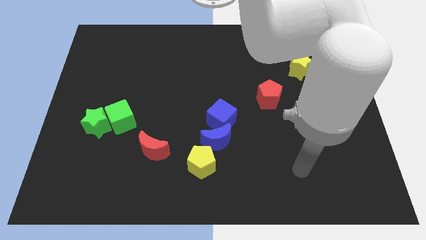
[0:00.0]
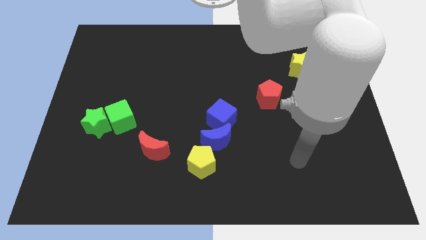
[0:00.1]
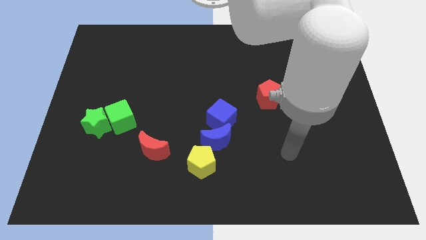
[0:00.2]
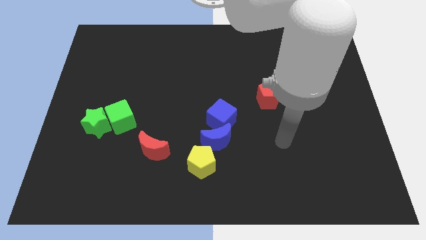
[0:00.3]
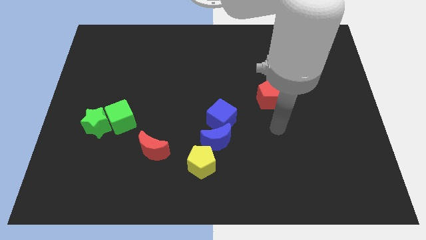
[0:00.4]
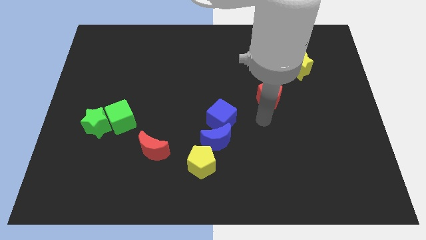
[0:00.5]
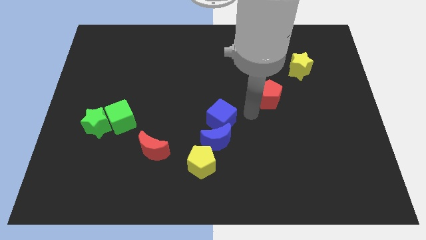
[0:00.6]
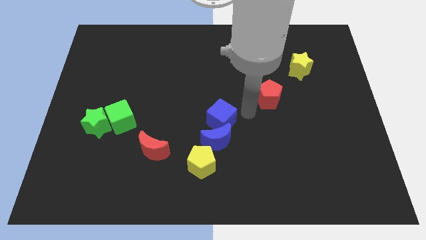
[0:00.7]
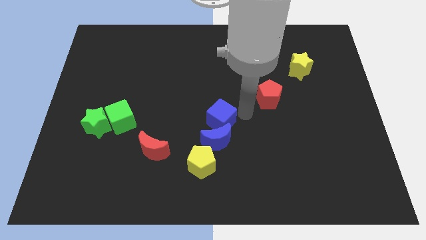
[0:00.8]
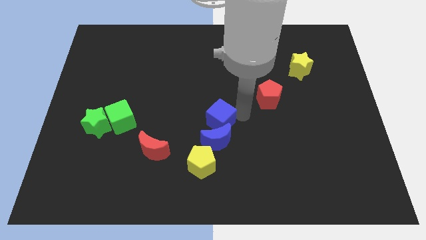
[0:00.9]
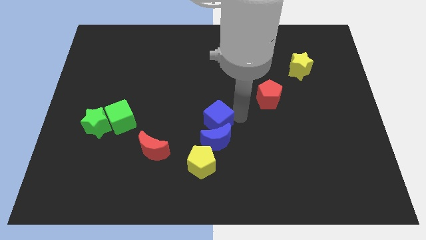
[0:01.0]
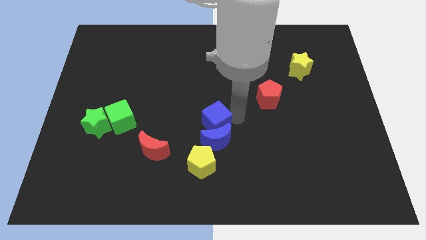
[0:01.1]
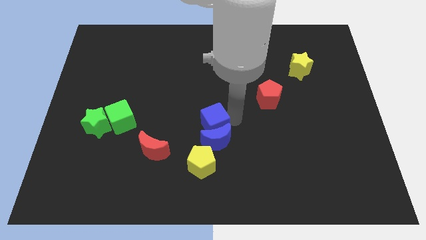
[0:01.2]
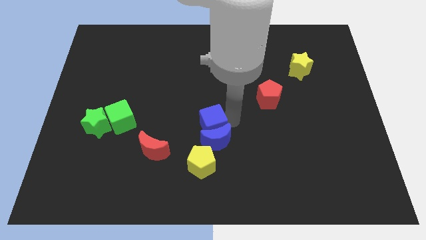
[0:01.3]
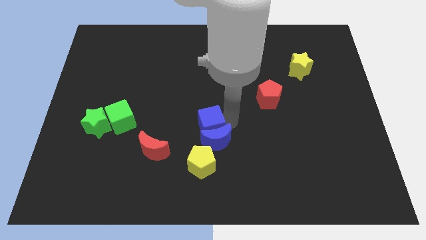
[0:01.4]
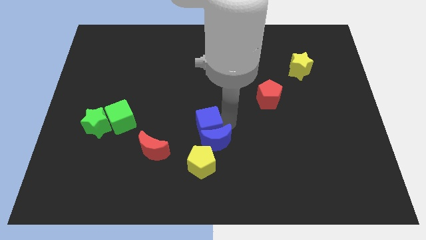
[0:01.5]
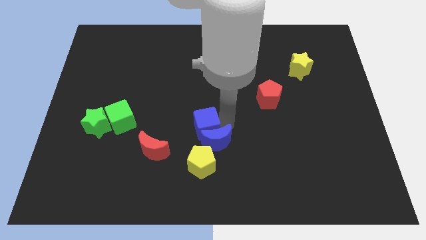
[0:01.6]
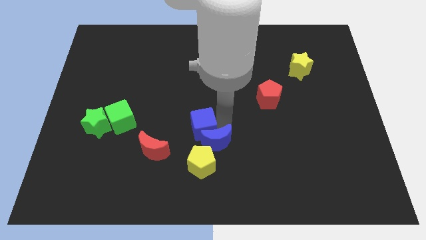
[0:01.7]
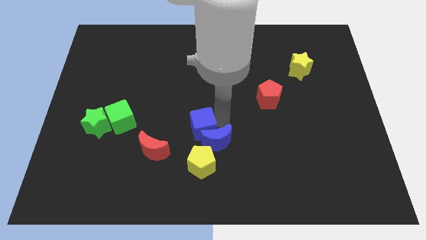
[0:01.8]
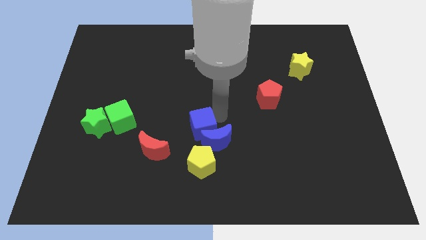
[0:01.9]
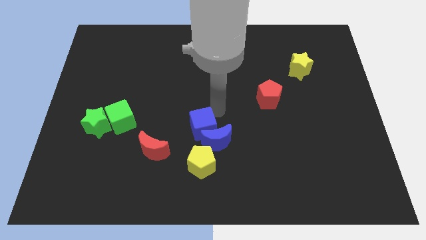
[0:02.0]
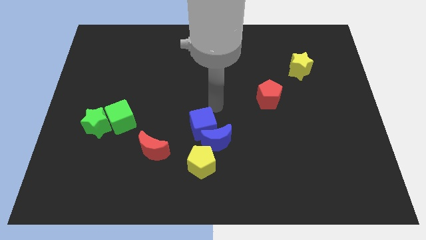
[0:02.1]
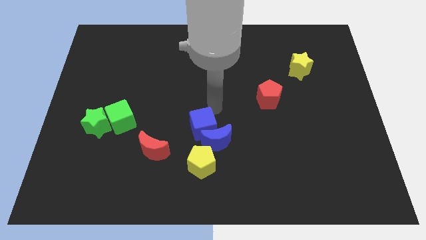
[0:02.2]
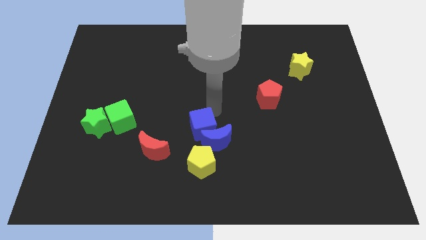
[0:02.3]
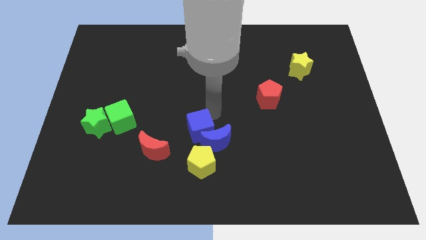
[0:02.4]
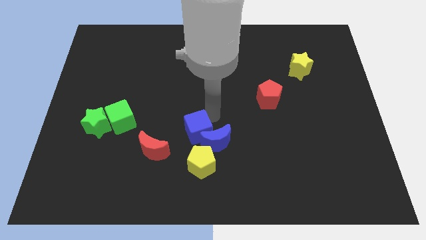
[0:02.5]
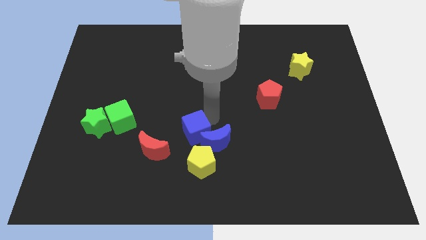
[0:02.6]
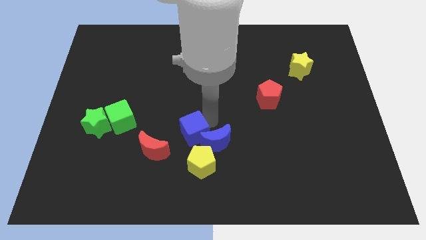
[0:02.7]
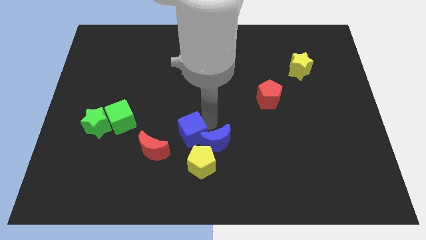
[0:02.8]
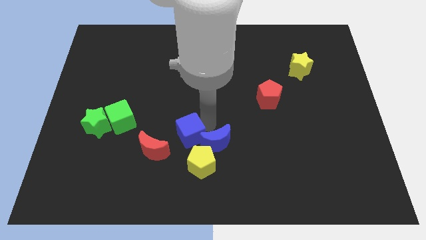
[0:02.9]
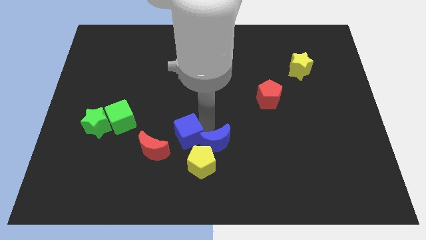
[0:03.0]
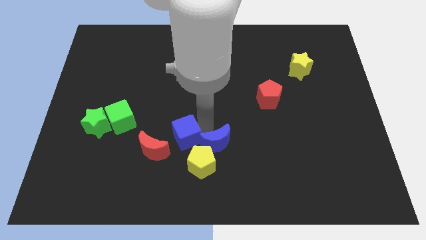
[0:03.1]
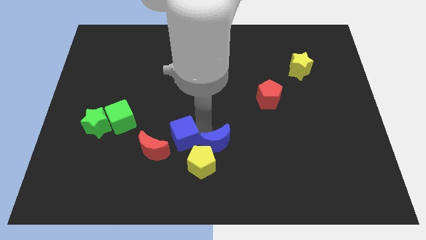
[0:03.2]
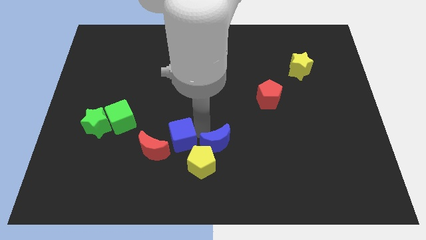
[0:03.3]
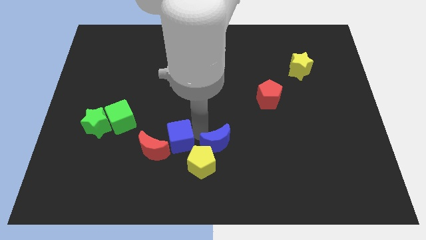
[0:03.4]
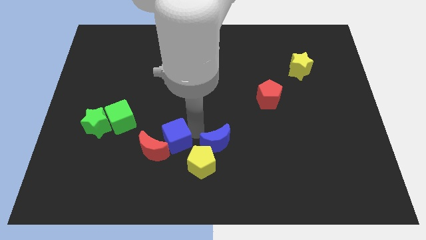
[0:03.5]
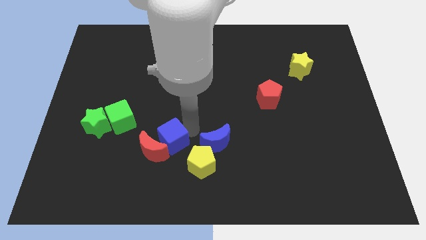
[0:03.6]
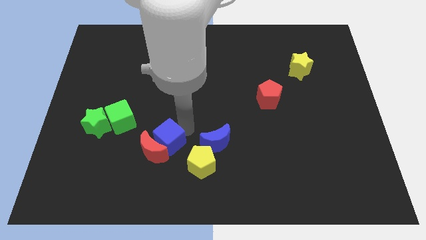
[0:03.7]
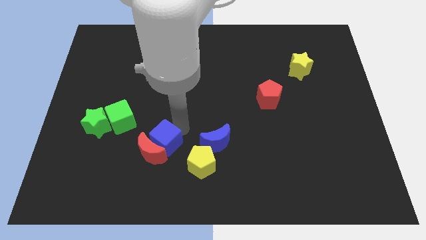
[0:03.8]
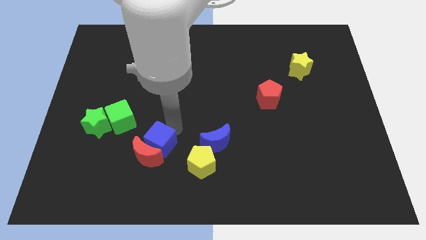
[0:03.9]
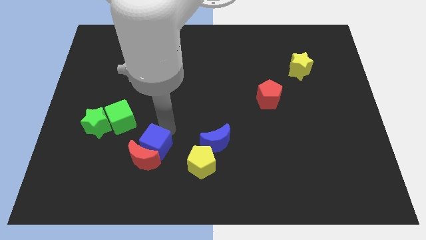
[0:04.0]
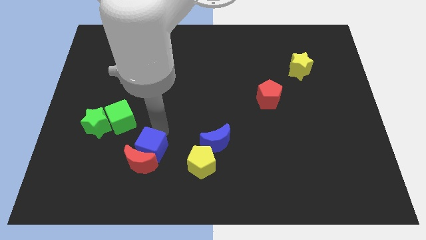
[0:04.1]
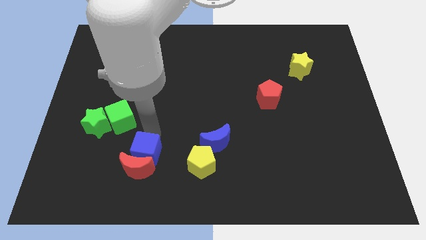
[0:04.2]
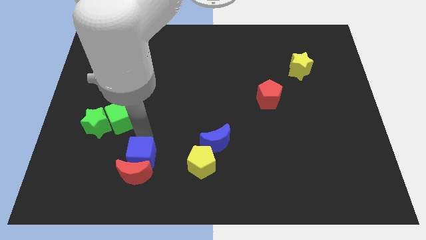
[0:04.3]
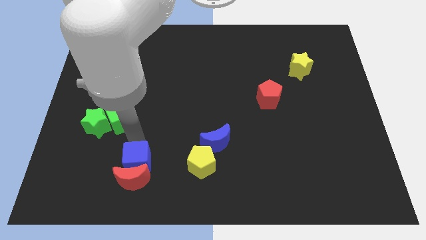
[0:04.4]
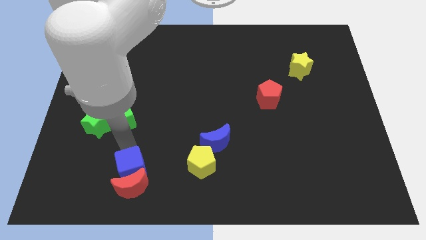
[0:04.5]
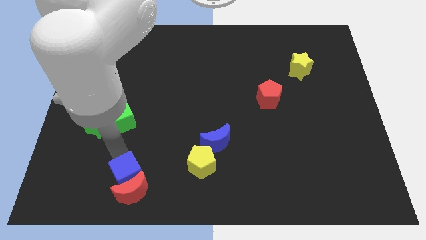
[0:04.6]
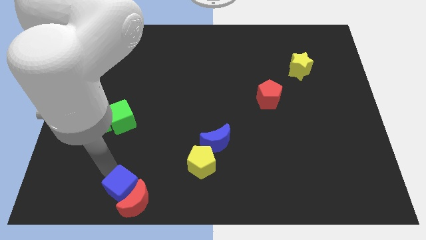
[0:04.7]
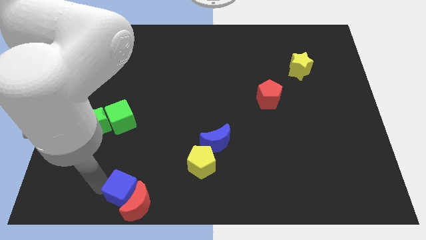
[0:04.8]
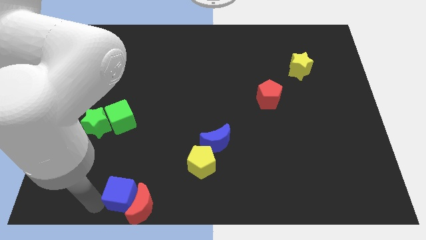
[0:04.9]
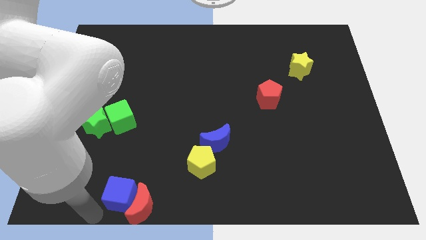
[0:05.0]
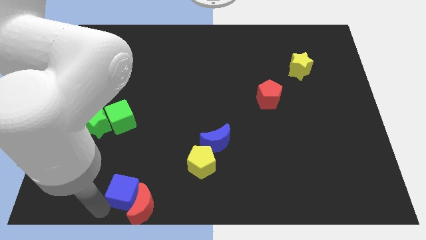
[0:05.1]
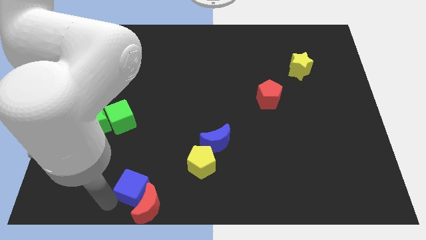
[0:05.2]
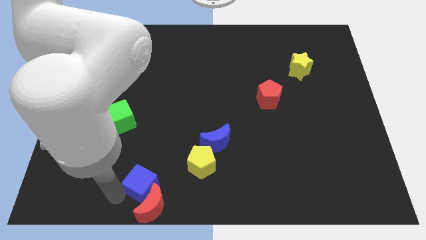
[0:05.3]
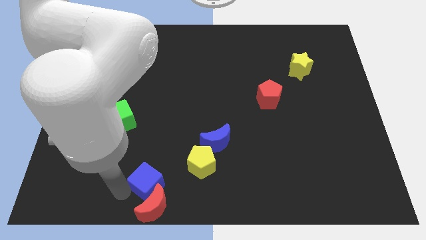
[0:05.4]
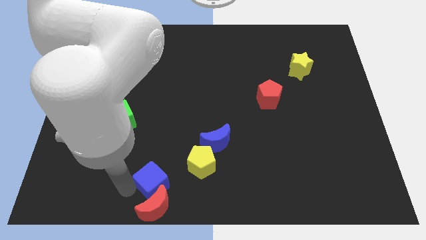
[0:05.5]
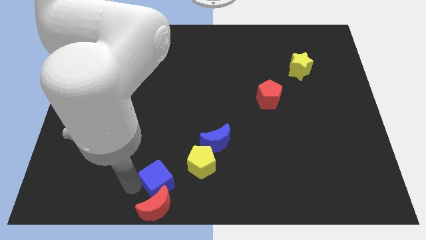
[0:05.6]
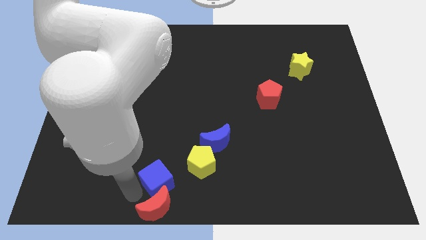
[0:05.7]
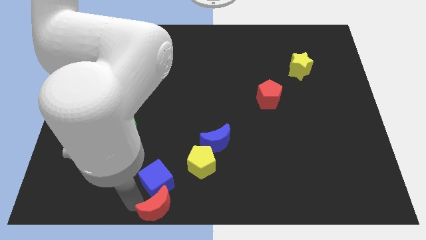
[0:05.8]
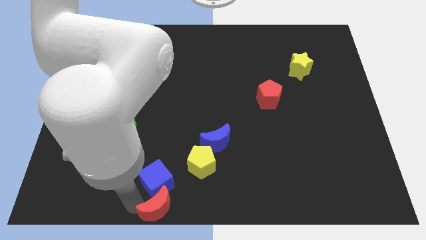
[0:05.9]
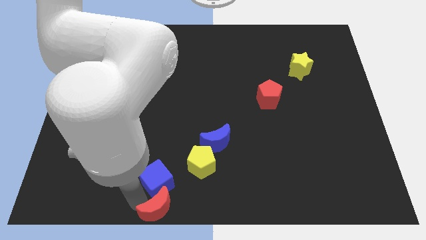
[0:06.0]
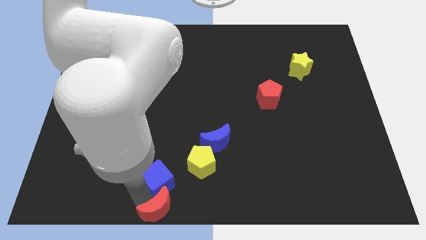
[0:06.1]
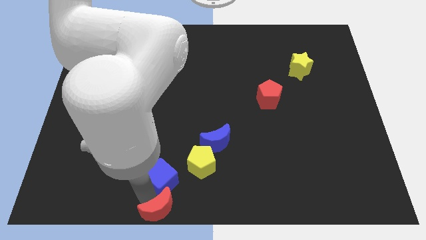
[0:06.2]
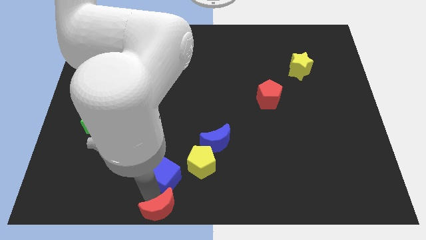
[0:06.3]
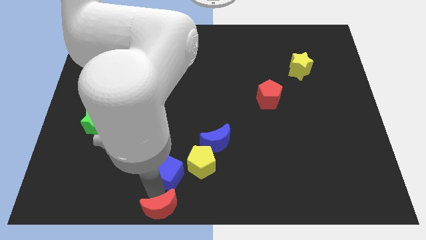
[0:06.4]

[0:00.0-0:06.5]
push the blue cube diagonally down and to the left of the blue moon

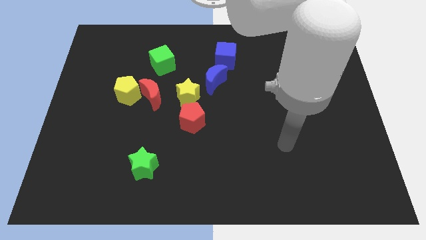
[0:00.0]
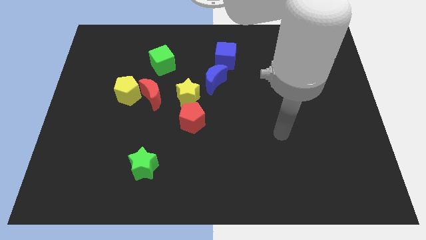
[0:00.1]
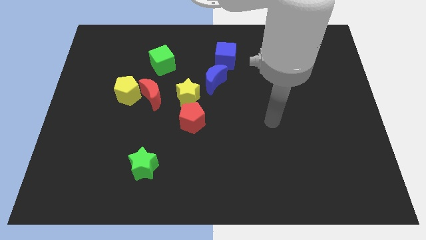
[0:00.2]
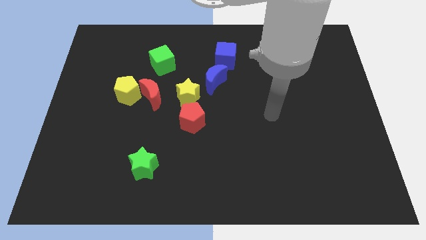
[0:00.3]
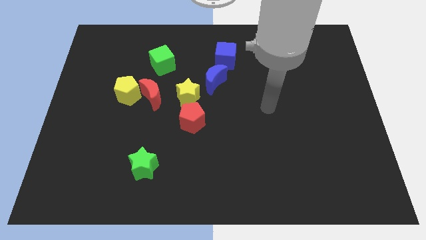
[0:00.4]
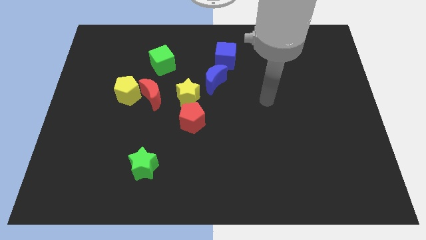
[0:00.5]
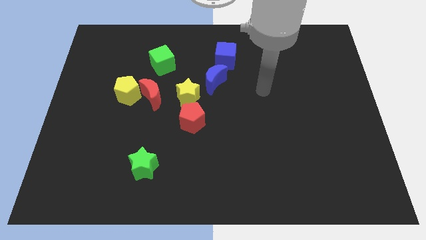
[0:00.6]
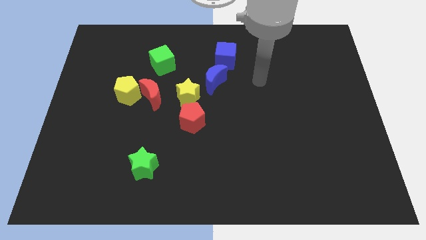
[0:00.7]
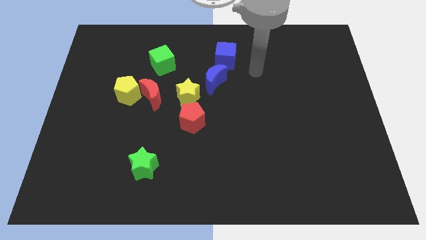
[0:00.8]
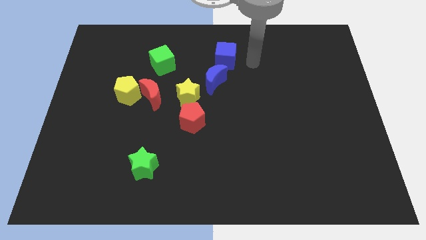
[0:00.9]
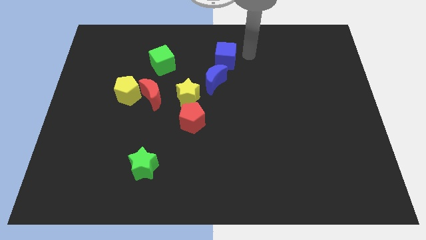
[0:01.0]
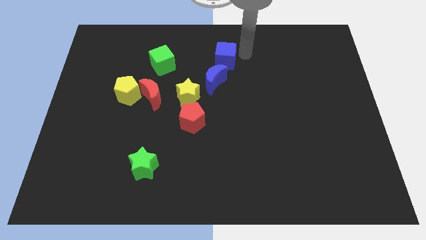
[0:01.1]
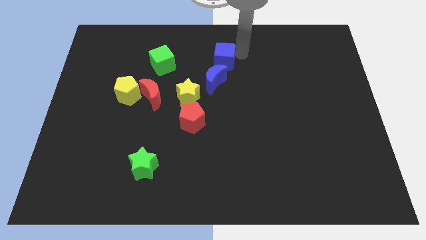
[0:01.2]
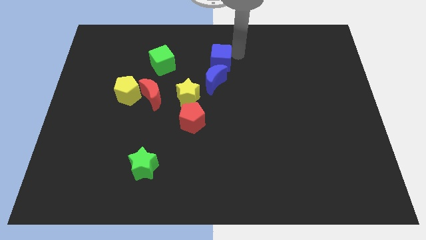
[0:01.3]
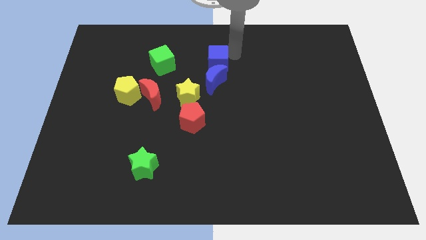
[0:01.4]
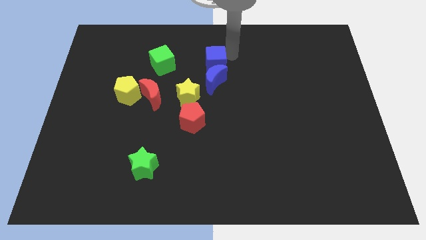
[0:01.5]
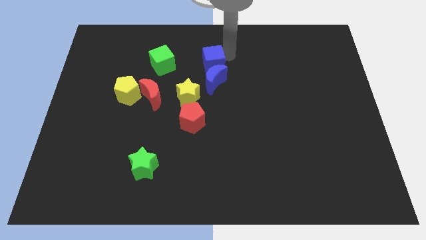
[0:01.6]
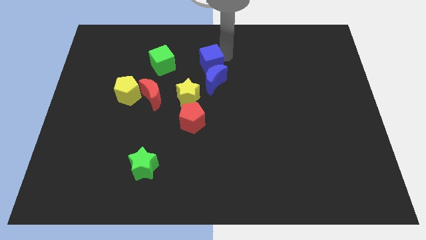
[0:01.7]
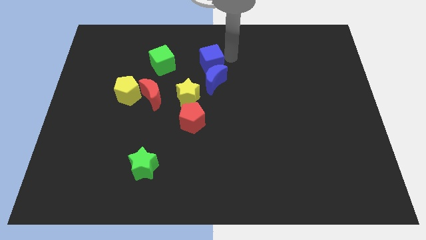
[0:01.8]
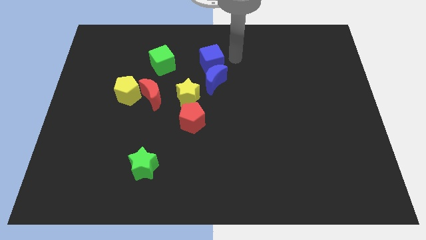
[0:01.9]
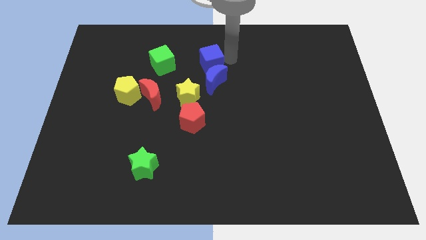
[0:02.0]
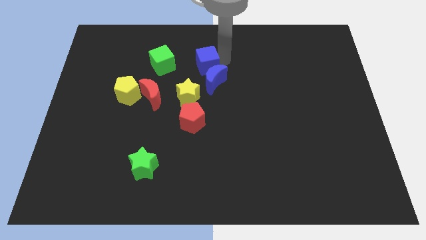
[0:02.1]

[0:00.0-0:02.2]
slide the blue cube above the yellow star
